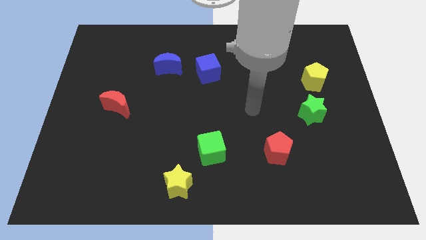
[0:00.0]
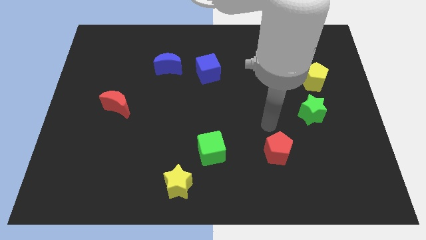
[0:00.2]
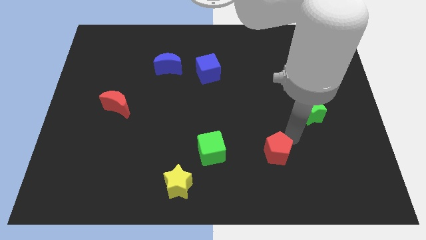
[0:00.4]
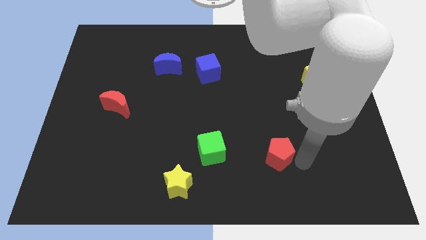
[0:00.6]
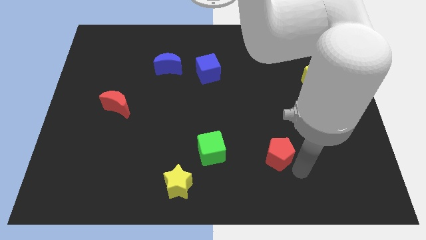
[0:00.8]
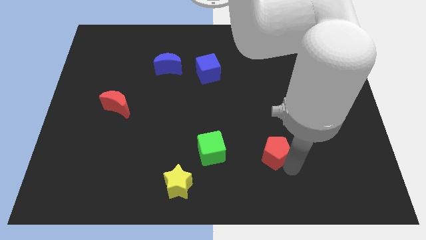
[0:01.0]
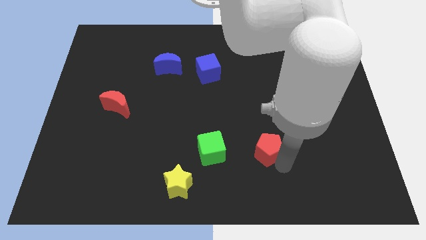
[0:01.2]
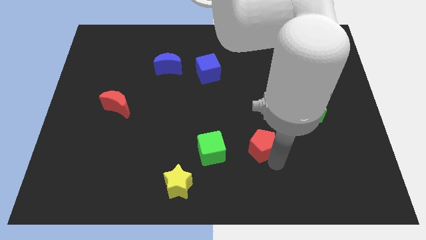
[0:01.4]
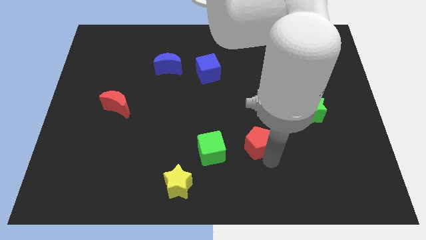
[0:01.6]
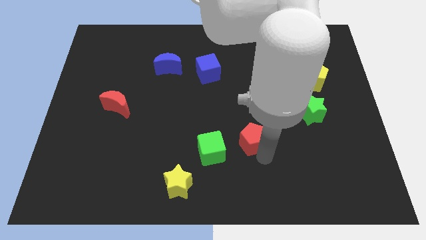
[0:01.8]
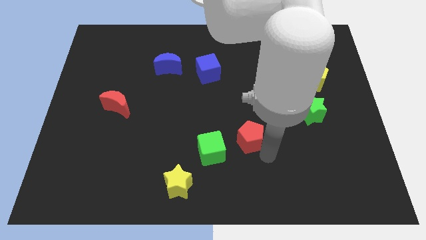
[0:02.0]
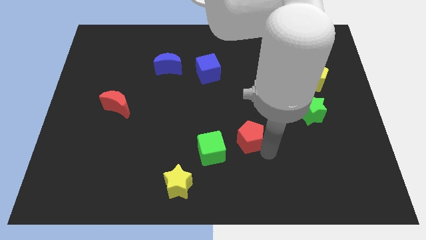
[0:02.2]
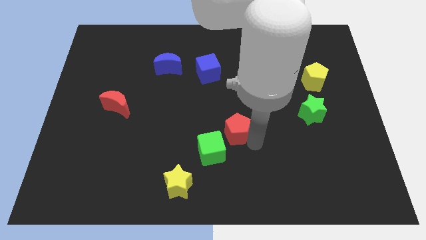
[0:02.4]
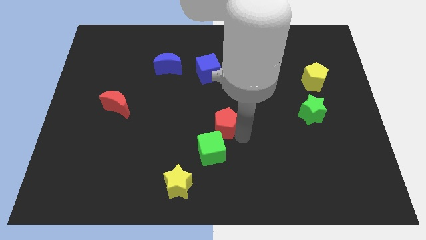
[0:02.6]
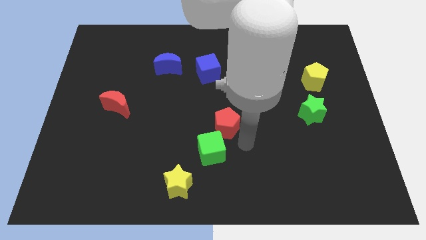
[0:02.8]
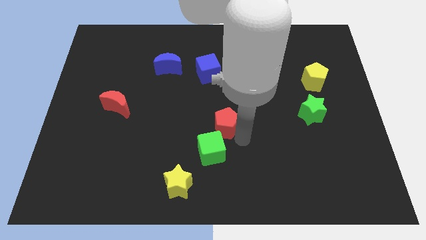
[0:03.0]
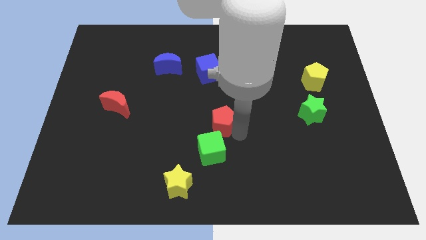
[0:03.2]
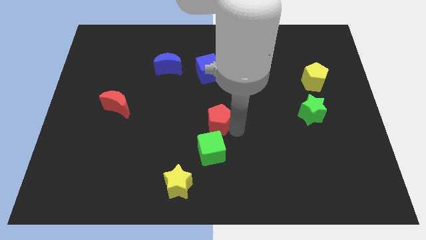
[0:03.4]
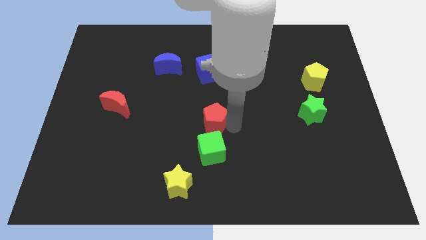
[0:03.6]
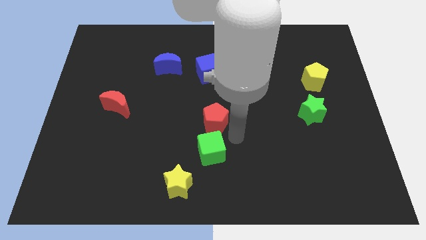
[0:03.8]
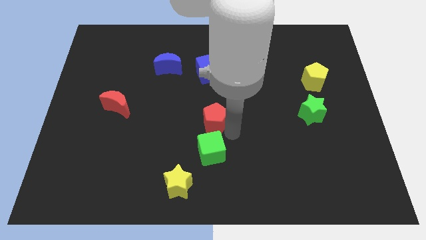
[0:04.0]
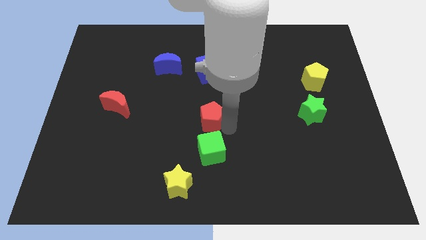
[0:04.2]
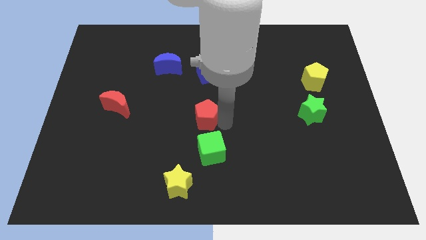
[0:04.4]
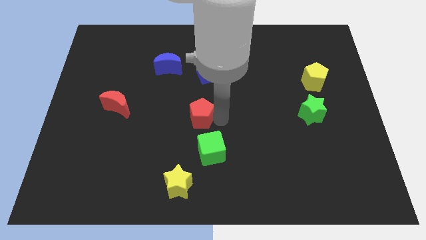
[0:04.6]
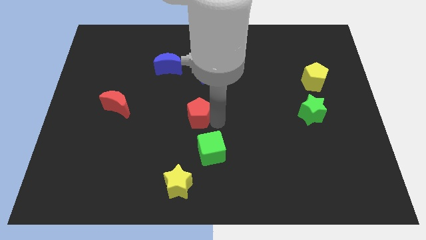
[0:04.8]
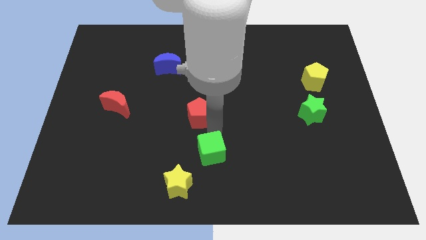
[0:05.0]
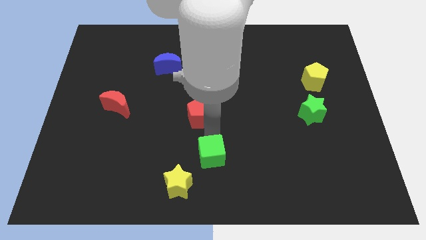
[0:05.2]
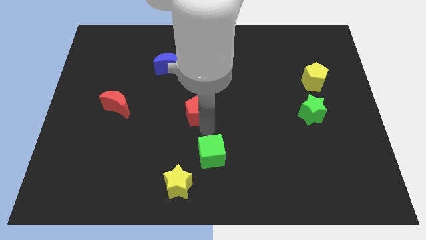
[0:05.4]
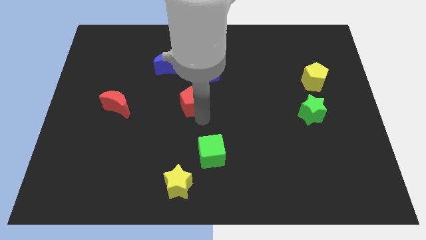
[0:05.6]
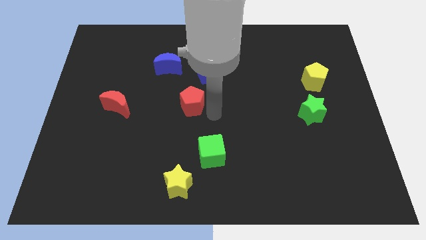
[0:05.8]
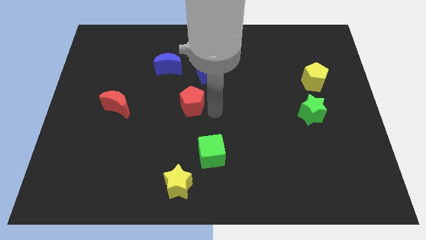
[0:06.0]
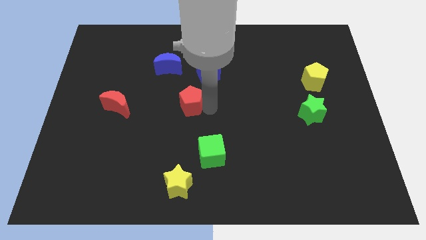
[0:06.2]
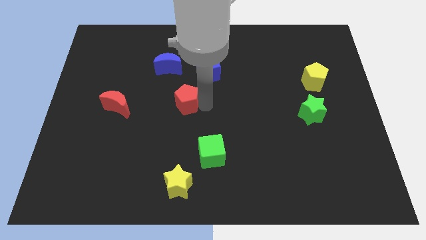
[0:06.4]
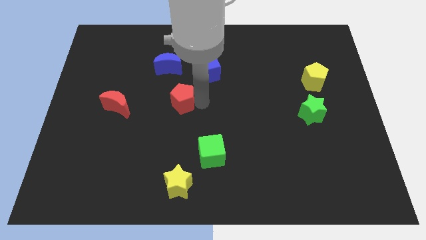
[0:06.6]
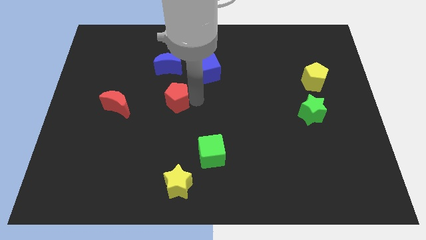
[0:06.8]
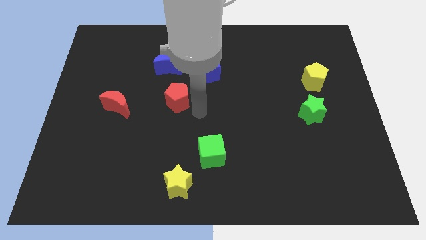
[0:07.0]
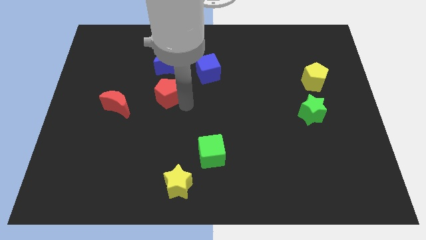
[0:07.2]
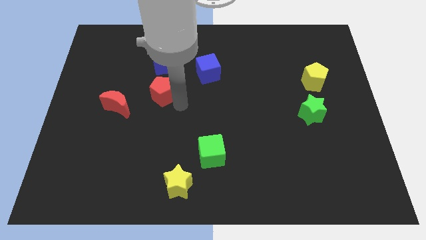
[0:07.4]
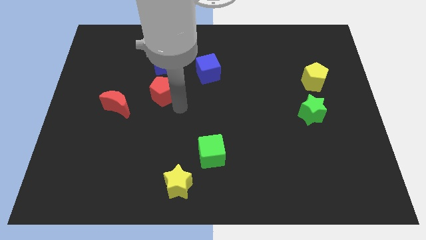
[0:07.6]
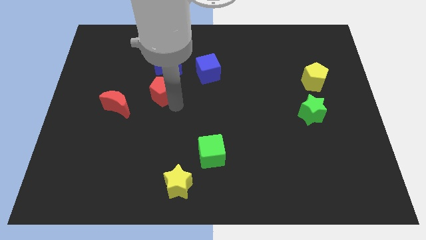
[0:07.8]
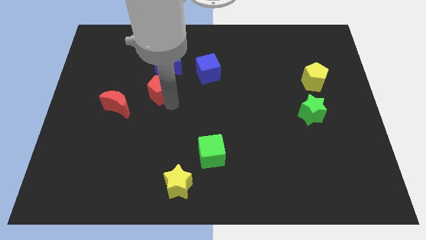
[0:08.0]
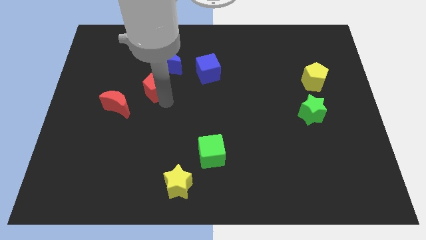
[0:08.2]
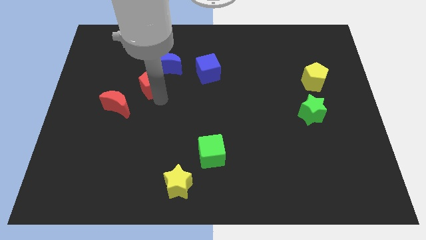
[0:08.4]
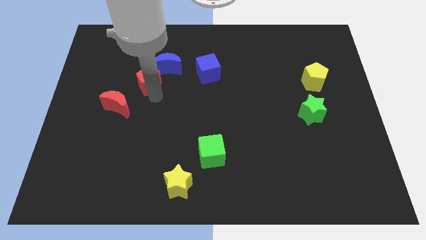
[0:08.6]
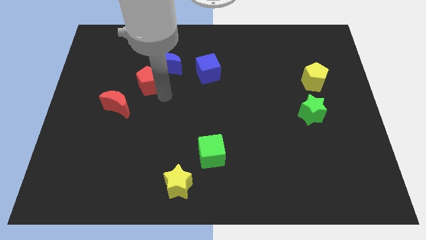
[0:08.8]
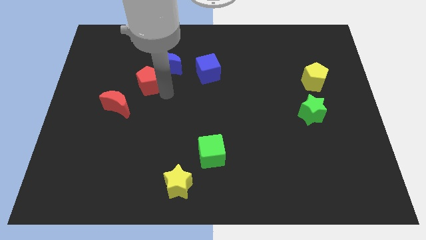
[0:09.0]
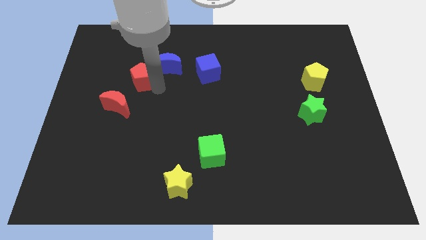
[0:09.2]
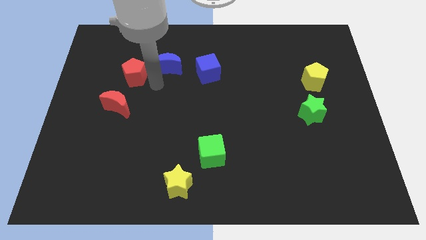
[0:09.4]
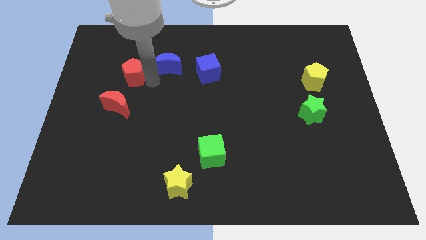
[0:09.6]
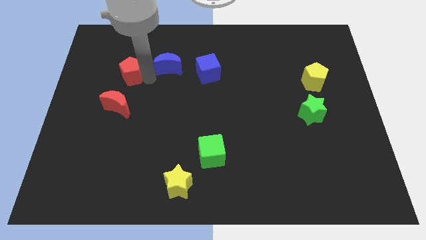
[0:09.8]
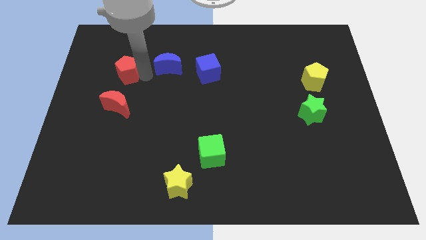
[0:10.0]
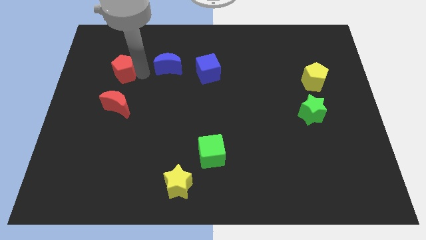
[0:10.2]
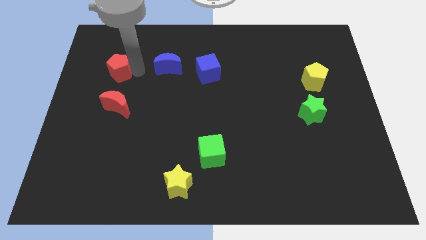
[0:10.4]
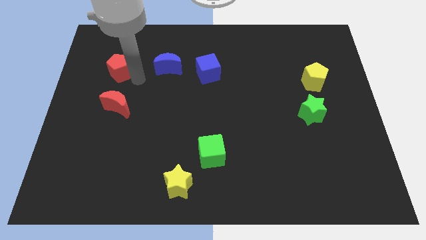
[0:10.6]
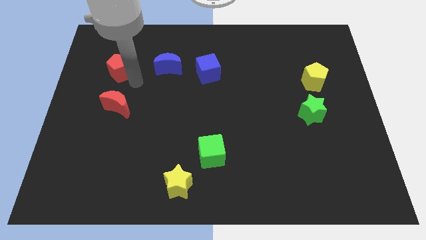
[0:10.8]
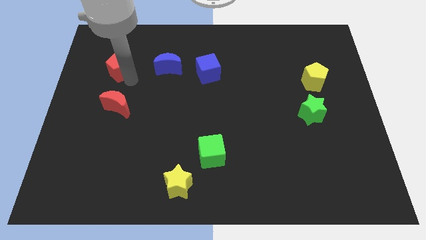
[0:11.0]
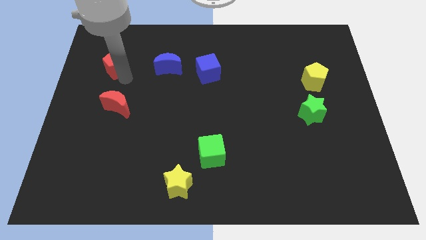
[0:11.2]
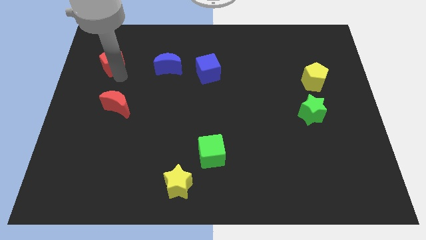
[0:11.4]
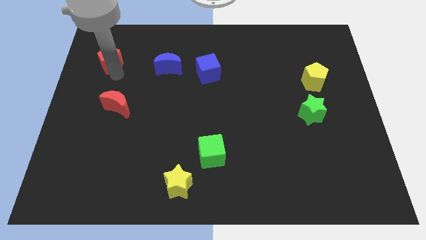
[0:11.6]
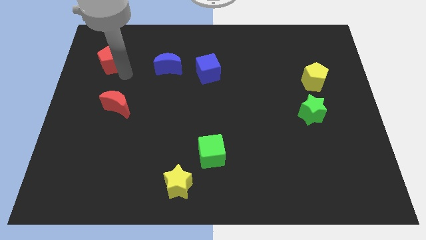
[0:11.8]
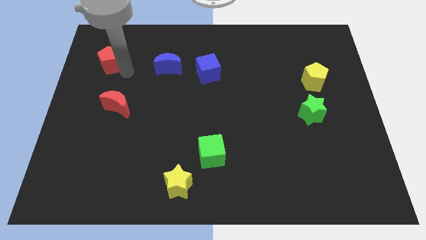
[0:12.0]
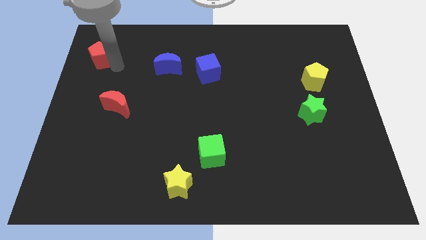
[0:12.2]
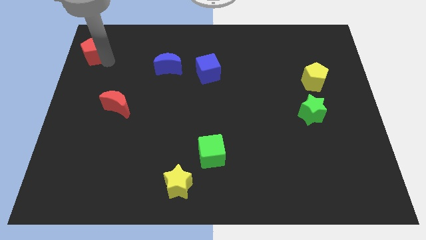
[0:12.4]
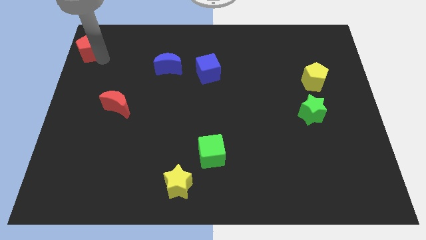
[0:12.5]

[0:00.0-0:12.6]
put the red pentagon to the top left corner
